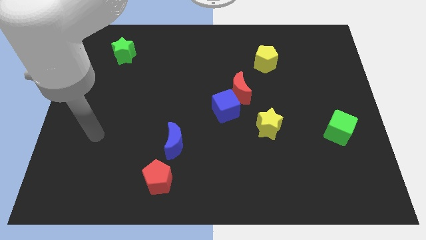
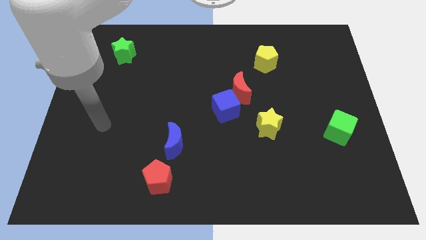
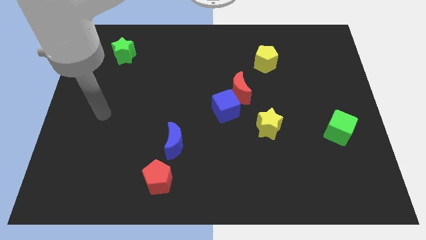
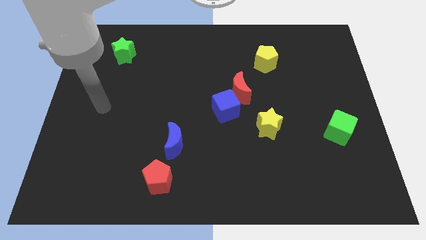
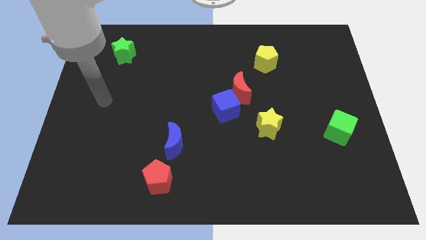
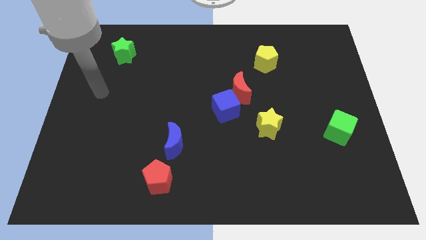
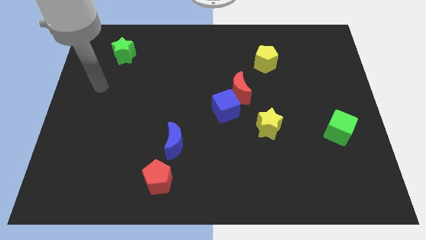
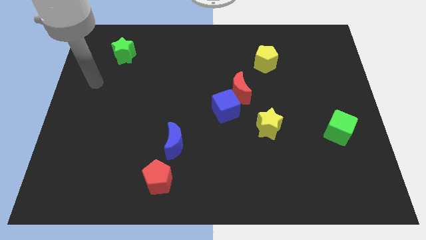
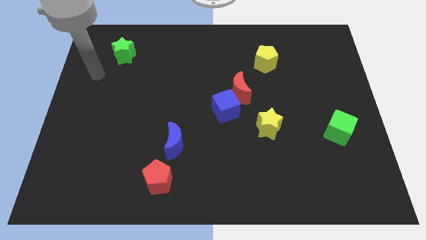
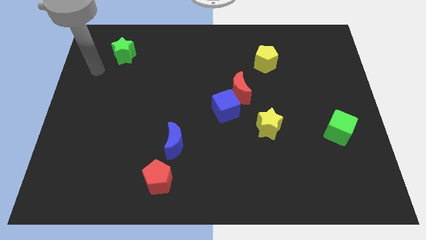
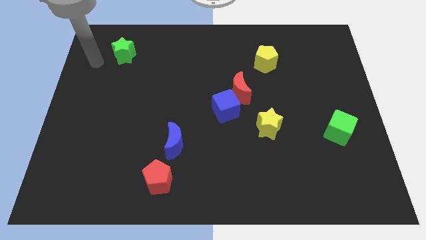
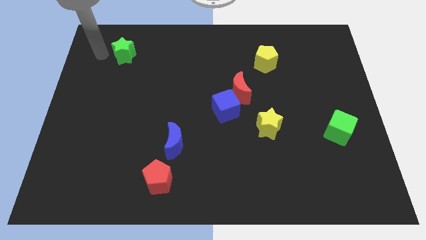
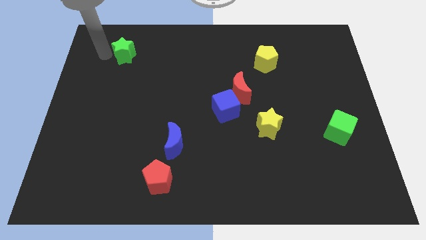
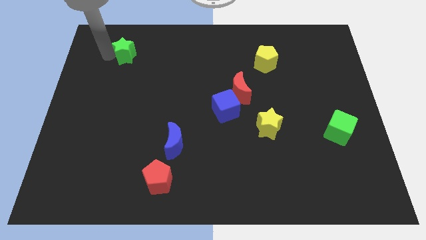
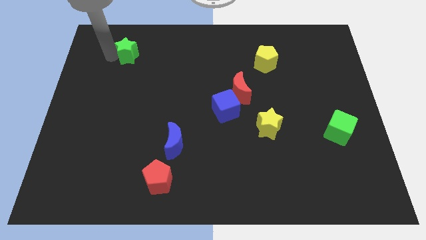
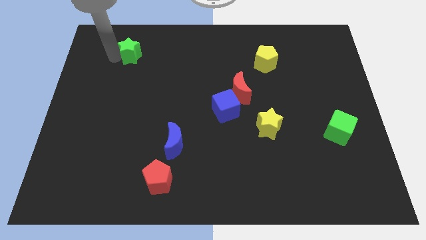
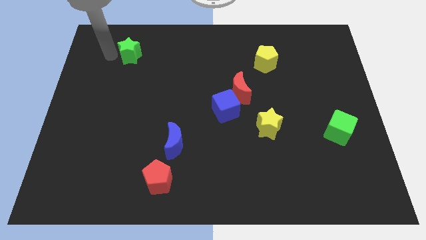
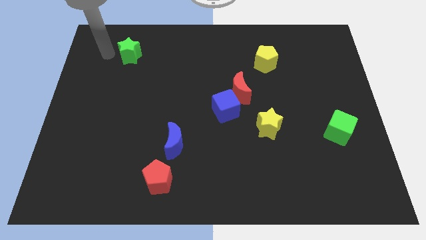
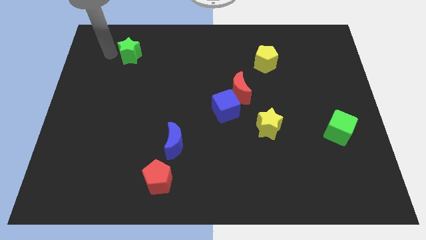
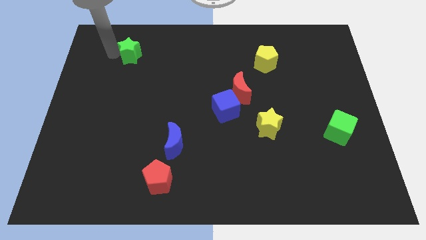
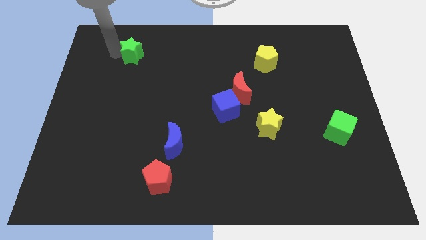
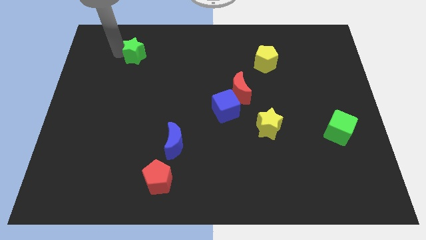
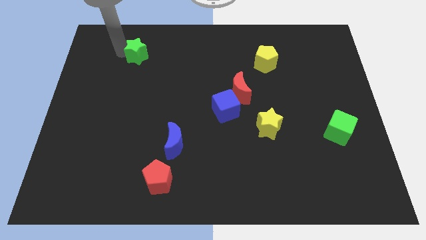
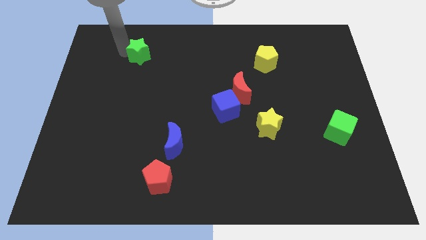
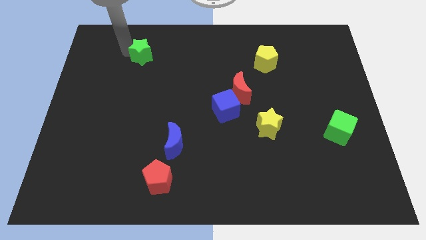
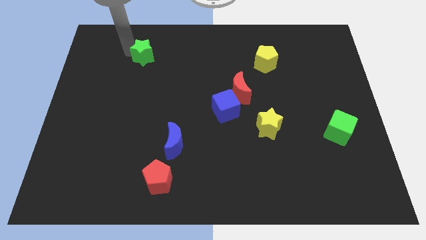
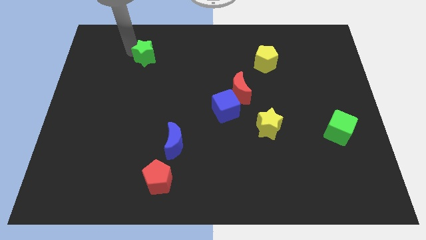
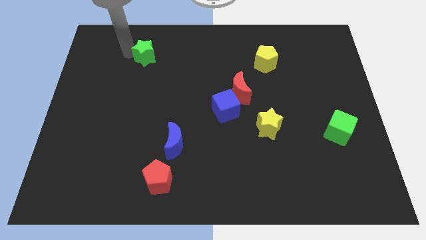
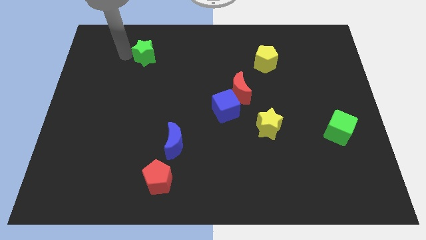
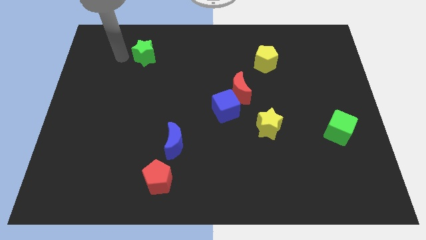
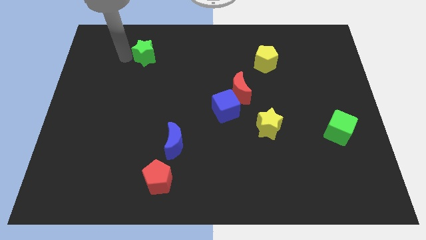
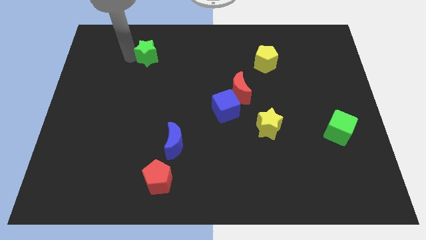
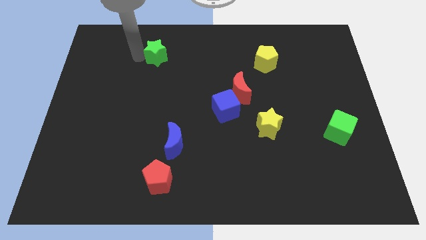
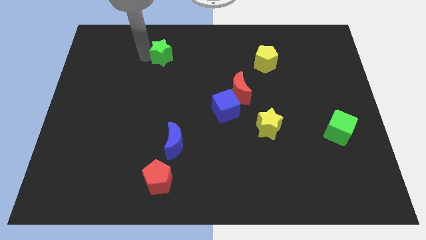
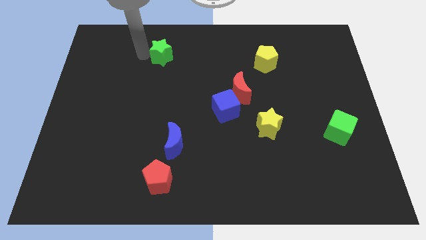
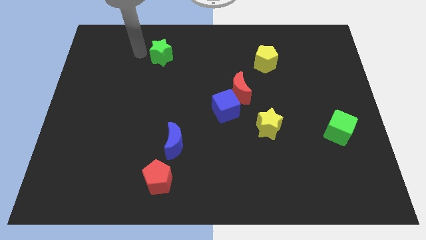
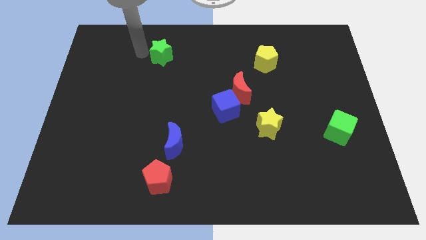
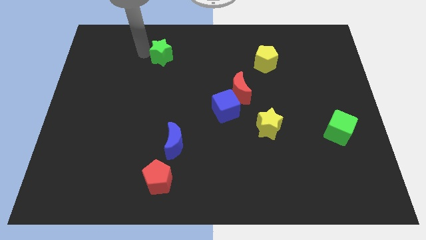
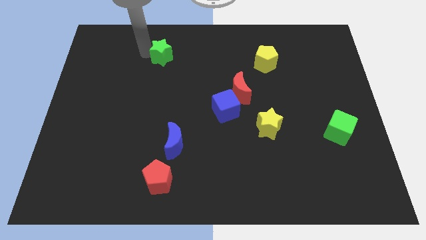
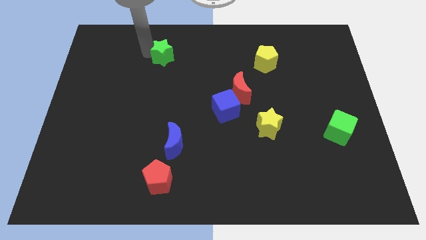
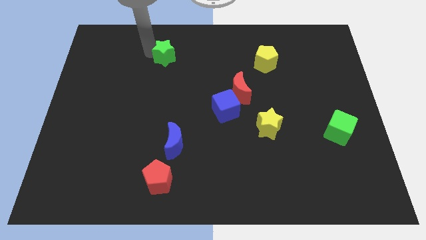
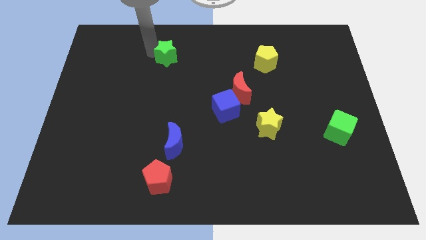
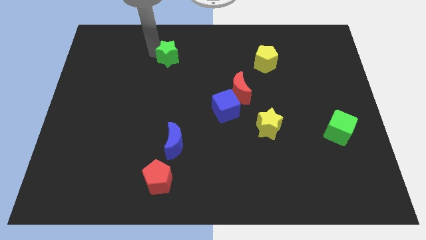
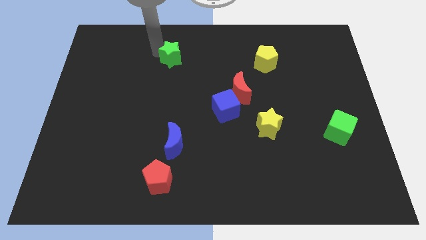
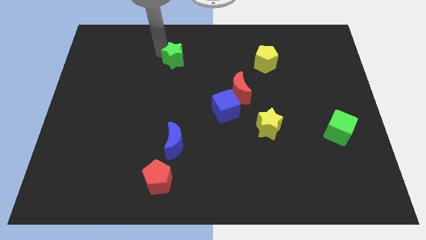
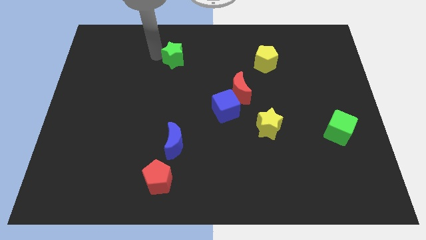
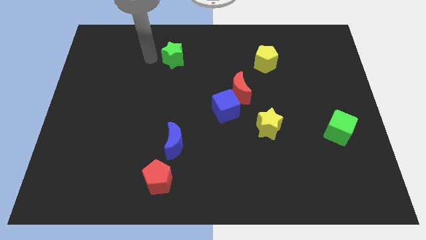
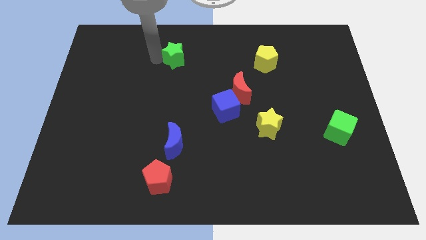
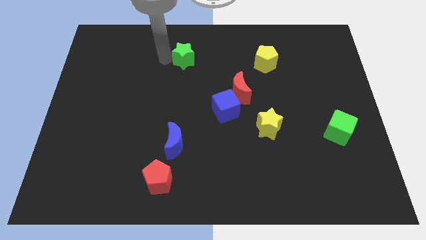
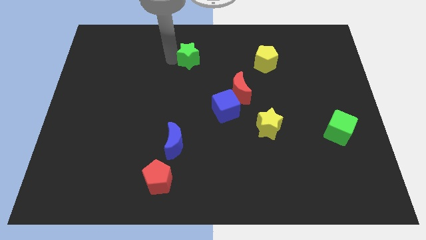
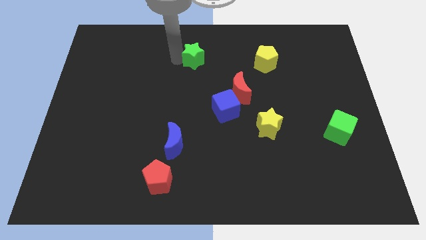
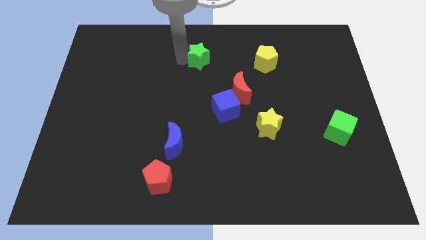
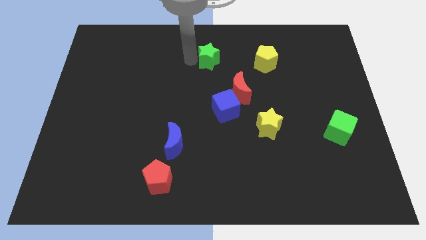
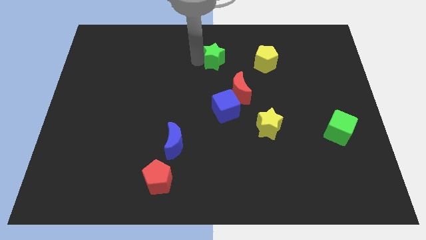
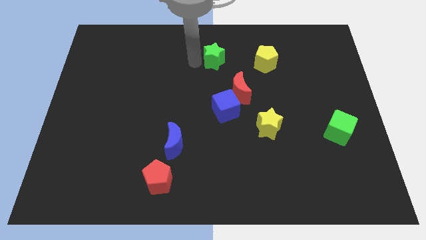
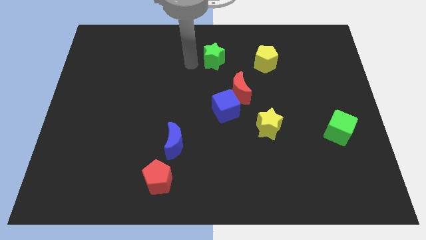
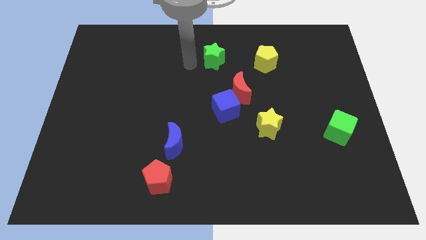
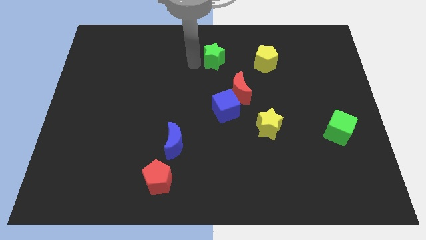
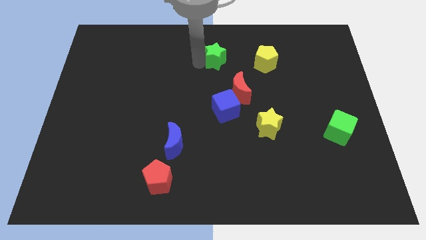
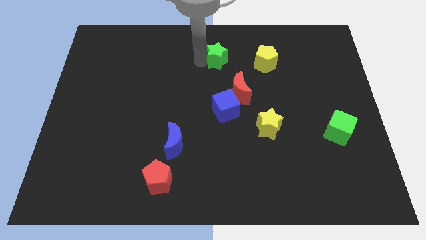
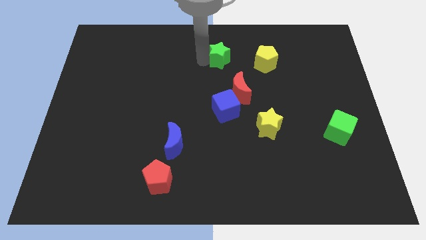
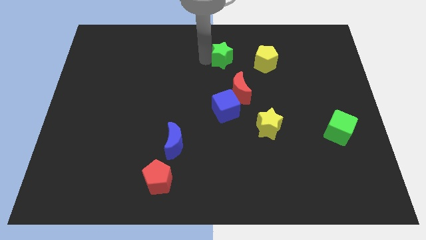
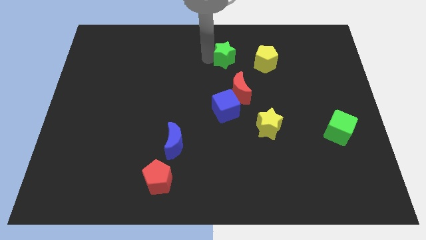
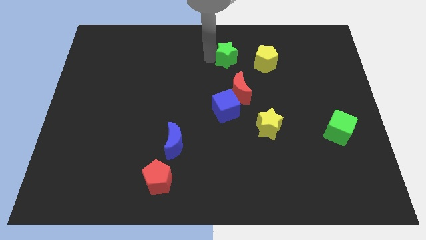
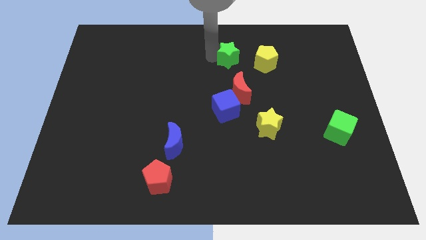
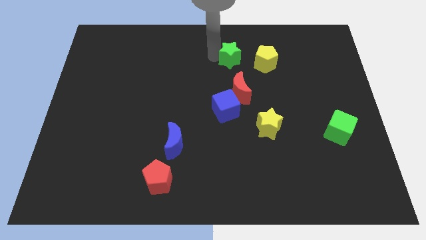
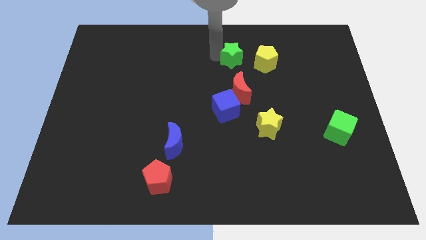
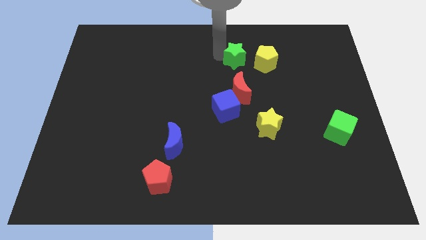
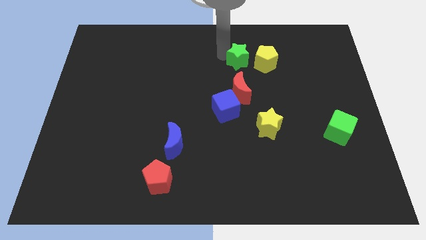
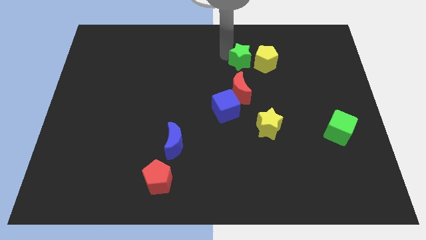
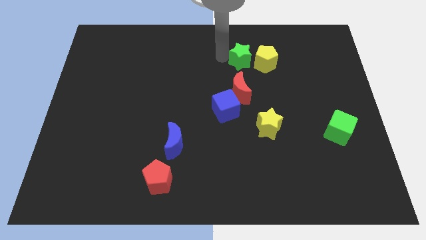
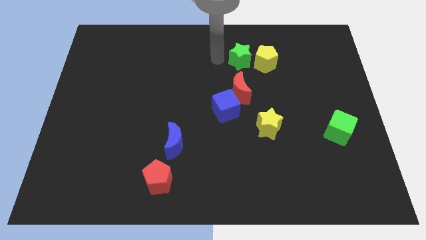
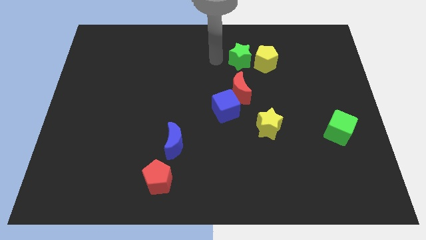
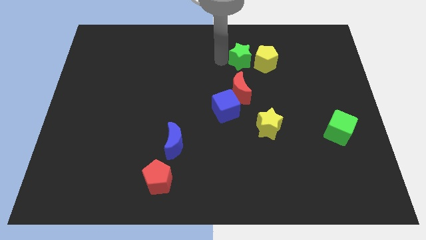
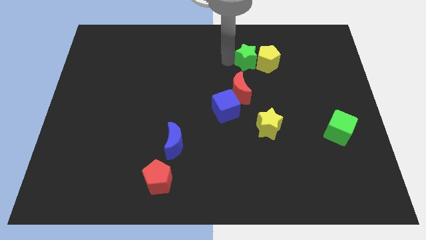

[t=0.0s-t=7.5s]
push the green star towards the yellow pentagon

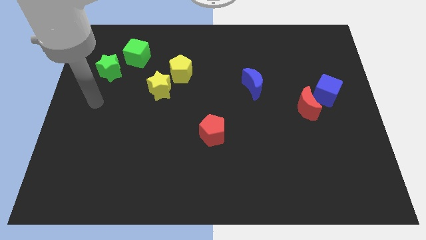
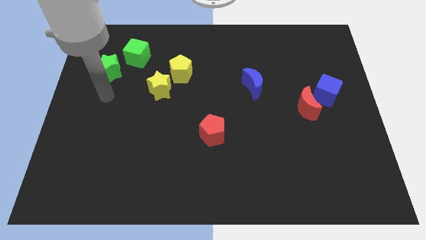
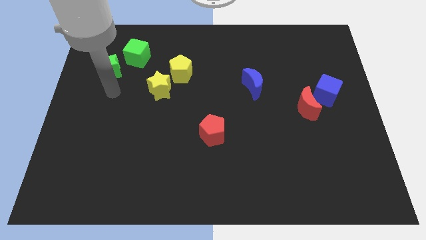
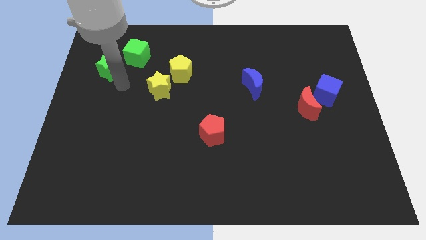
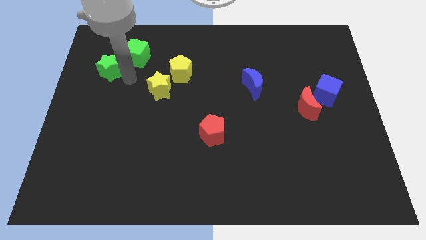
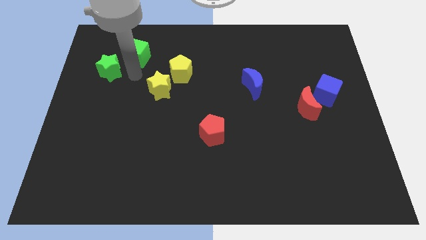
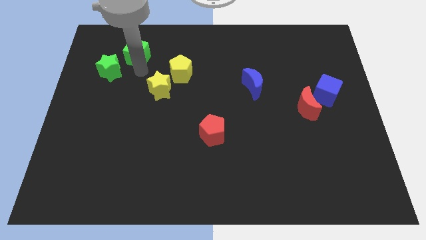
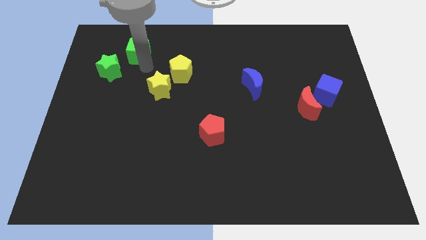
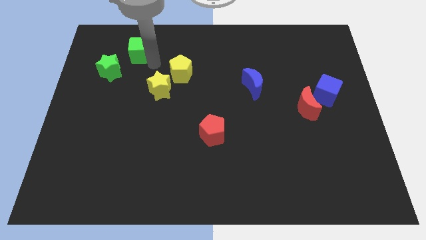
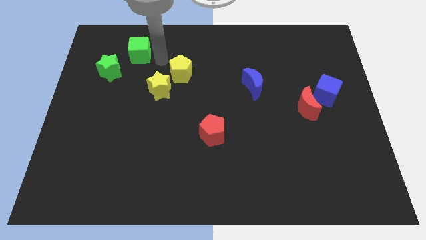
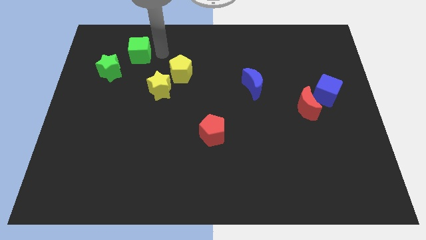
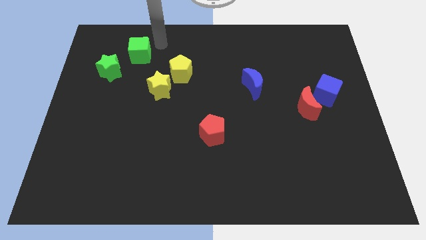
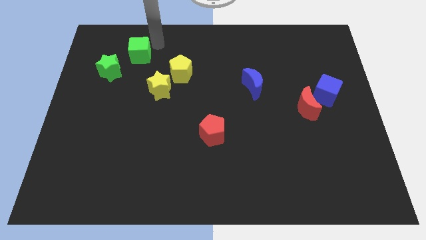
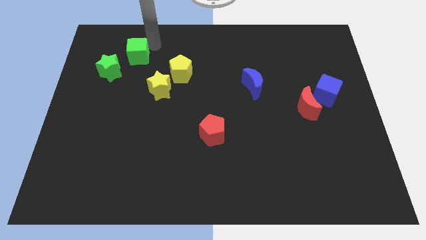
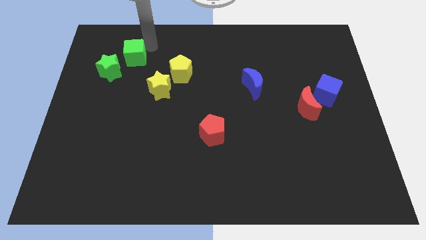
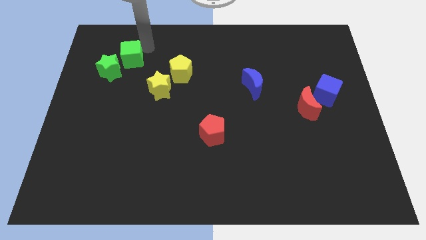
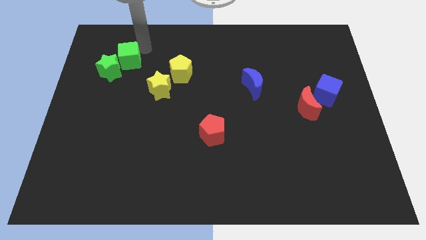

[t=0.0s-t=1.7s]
slide the green cube towards the green star
